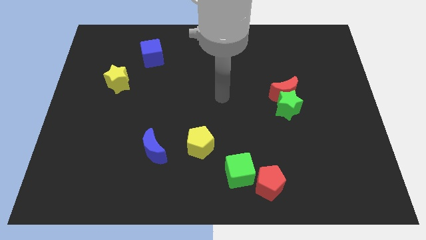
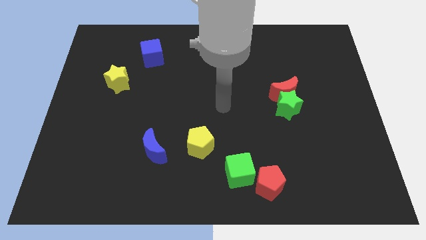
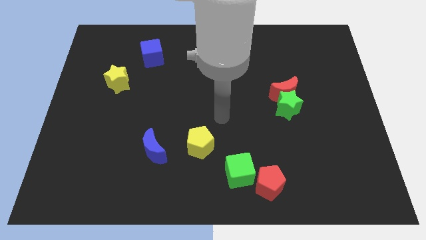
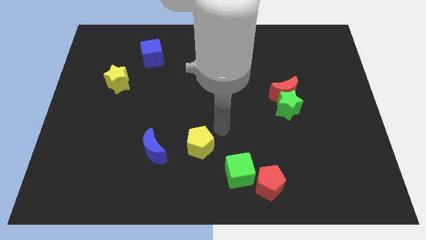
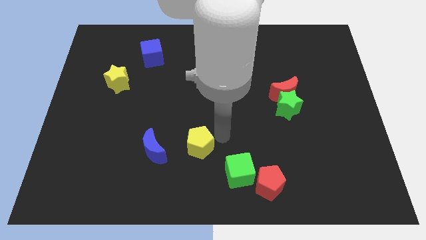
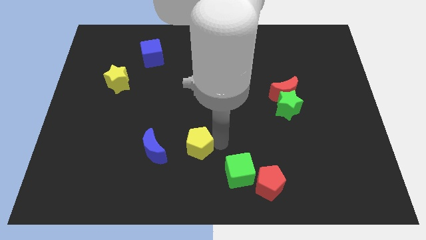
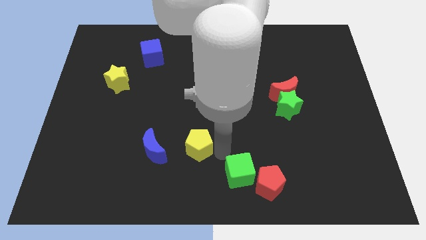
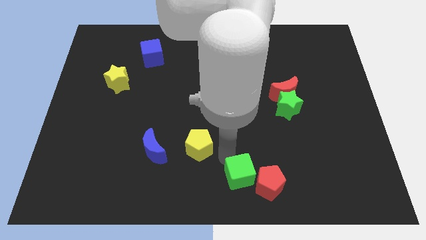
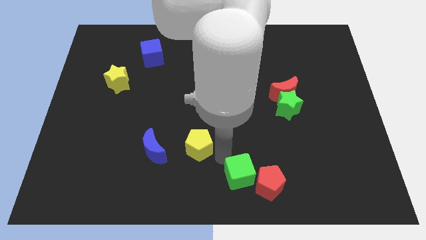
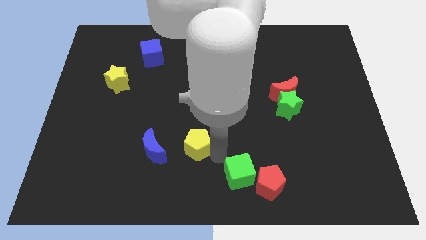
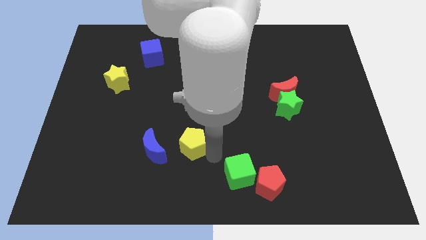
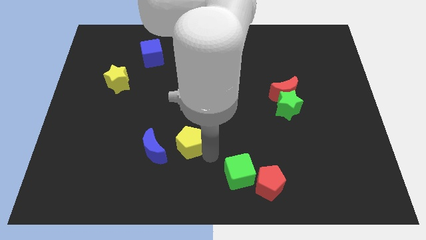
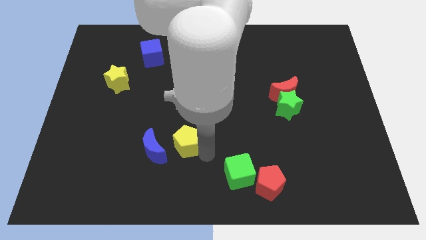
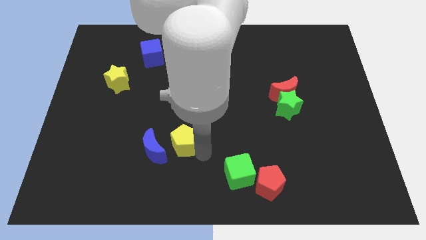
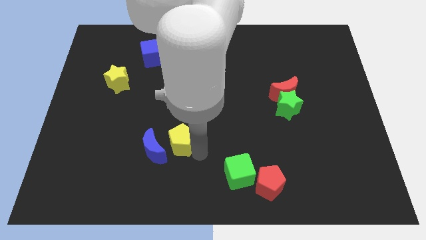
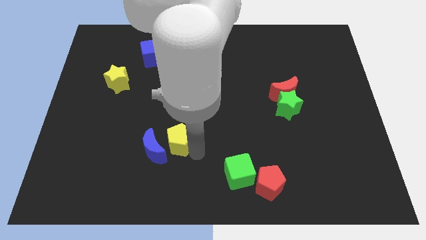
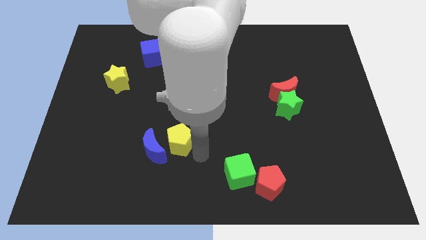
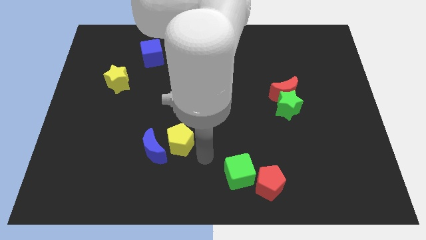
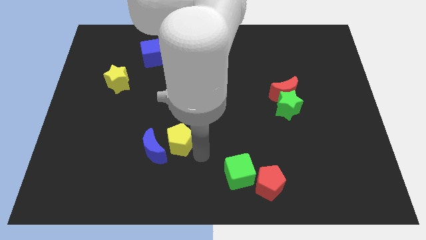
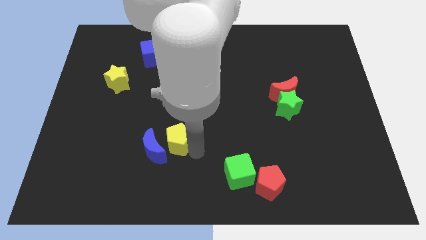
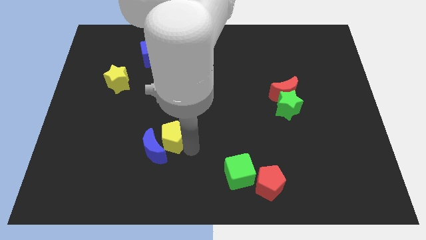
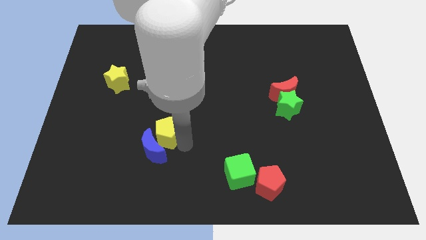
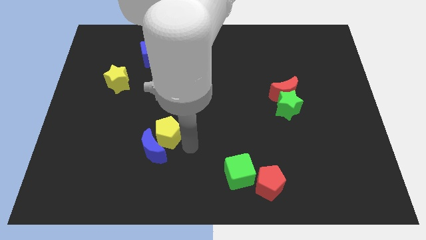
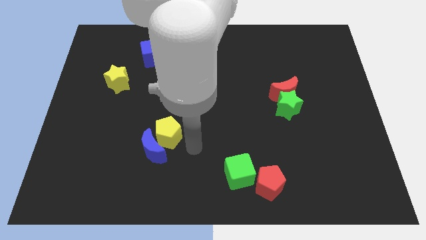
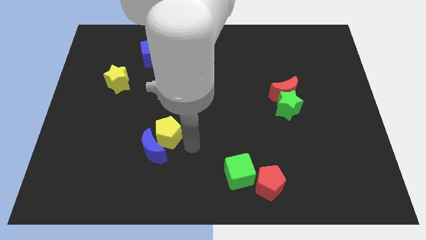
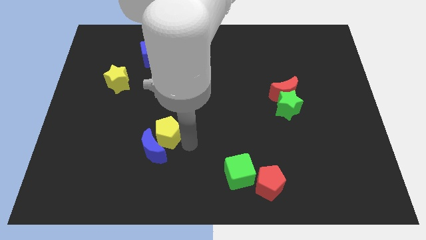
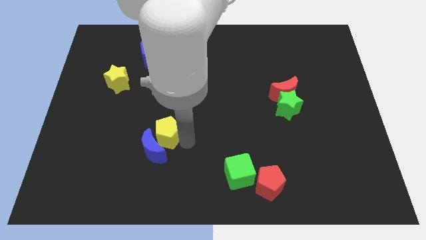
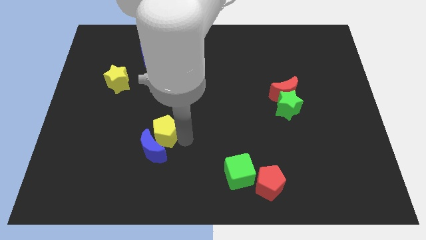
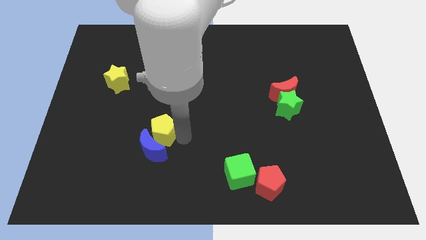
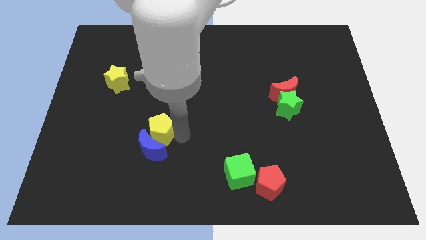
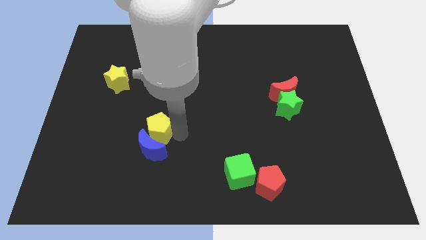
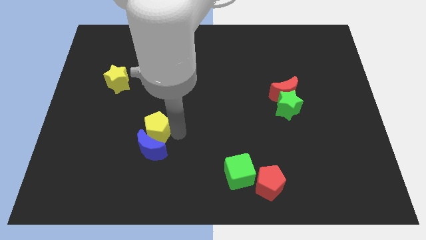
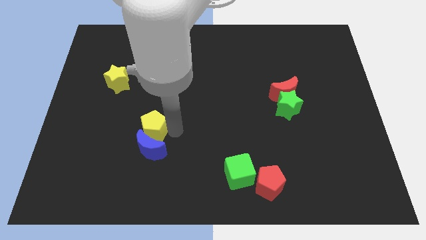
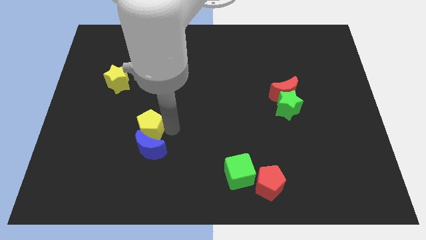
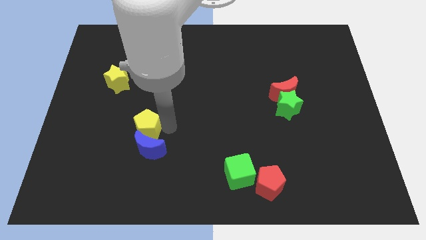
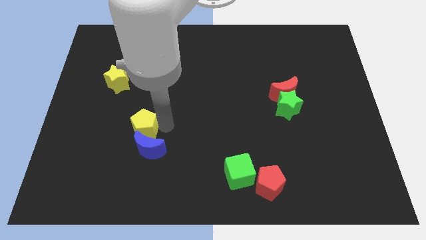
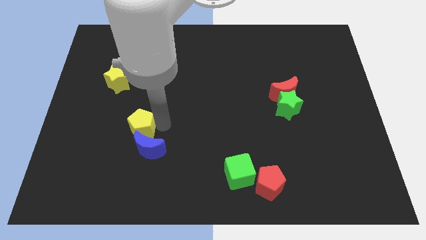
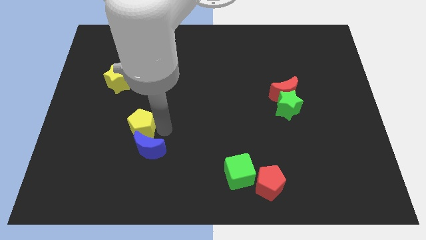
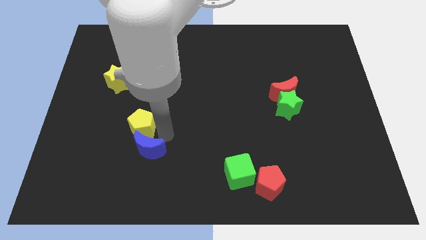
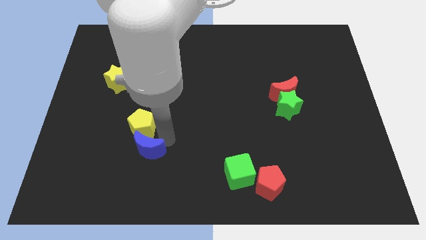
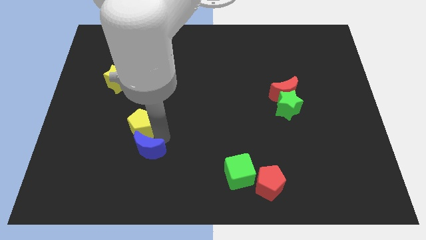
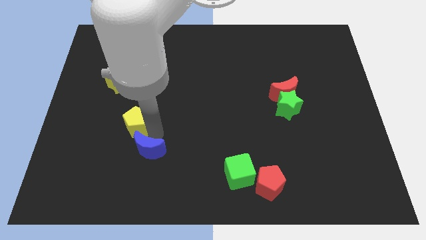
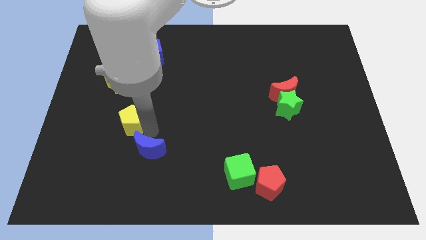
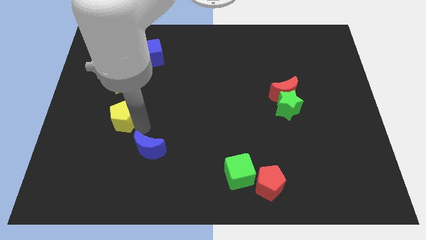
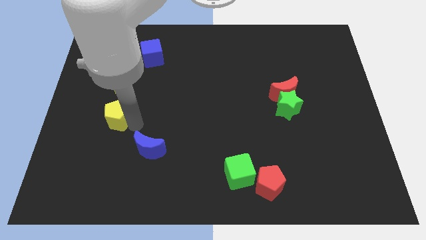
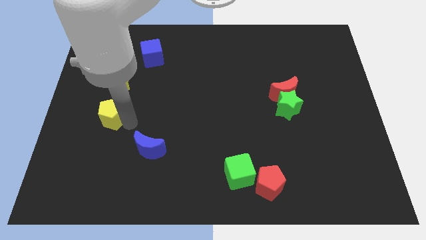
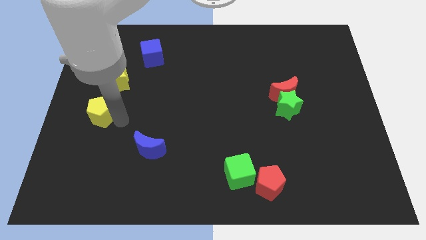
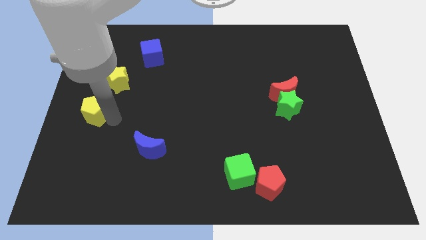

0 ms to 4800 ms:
slide the yellow pentagon to the bottom left side of the yellow star

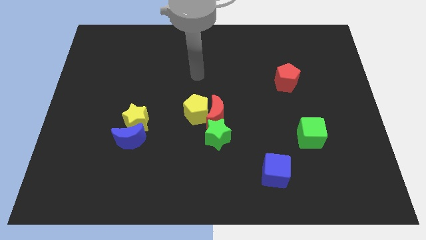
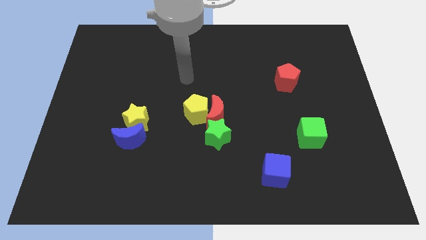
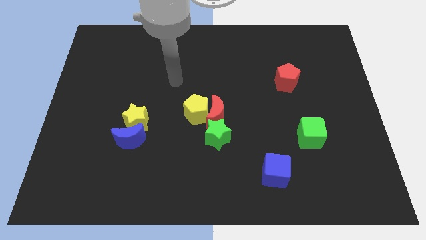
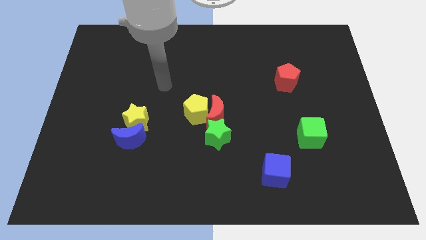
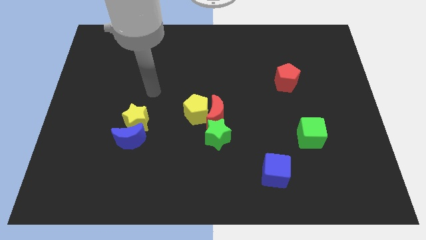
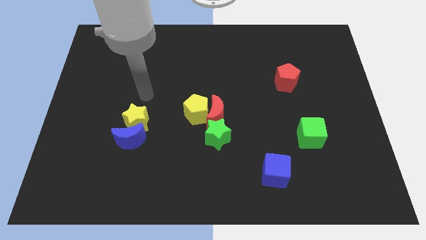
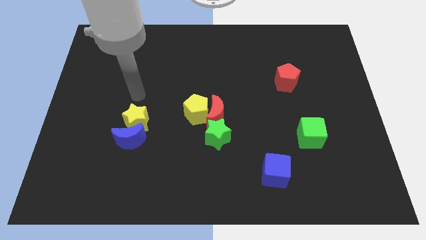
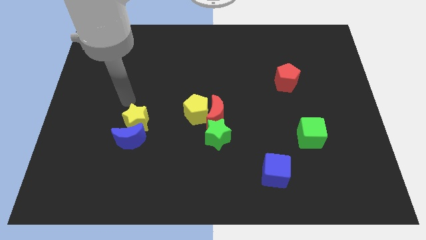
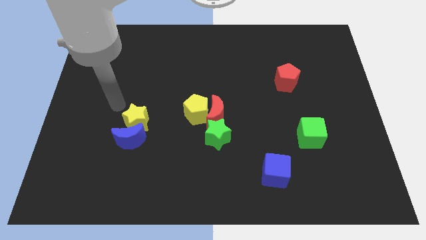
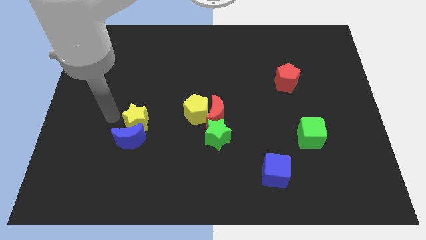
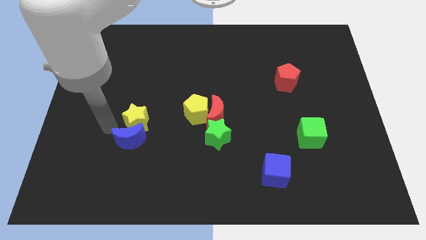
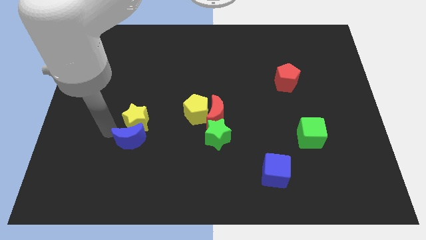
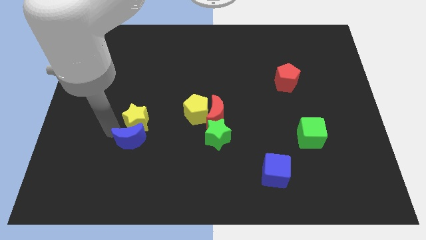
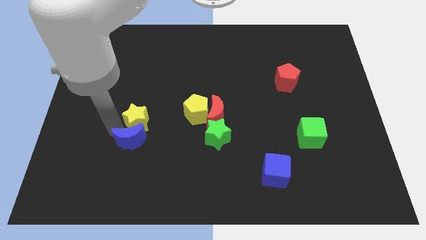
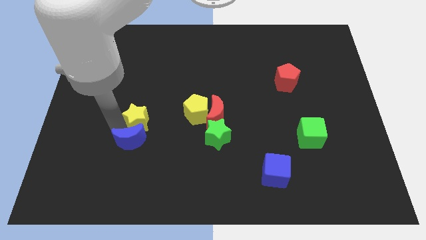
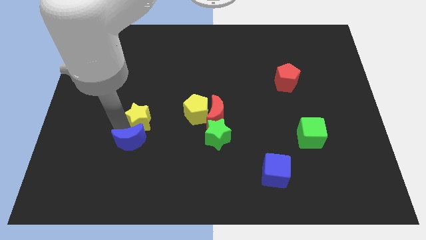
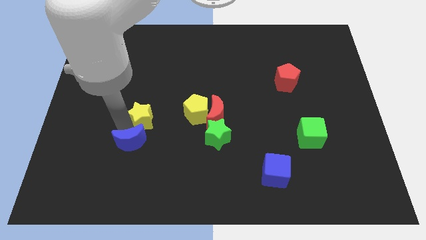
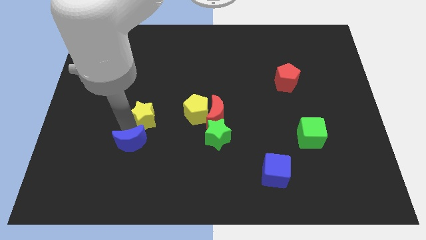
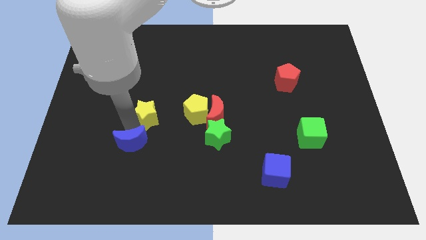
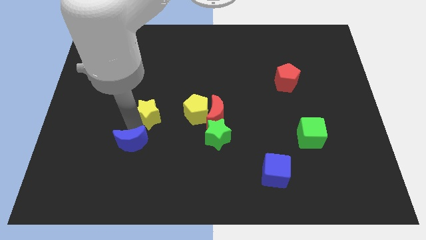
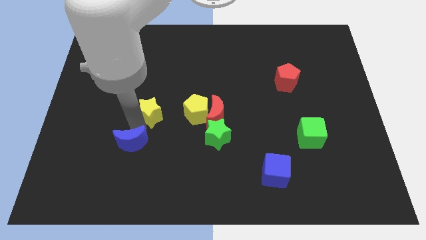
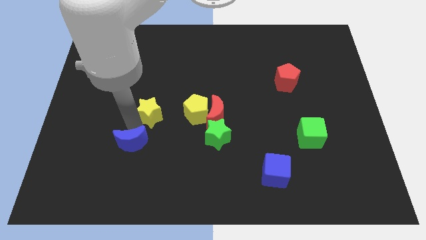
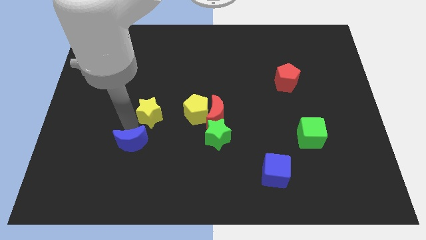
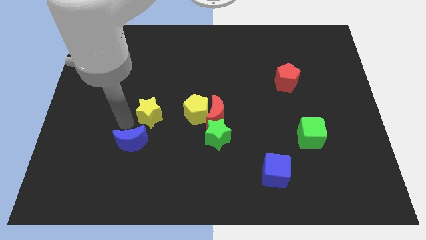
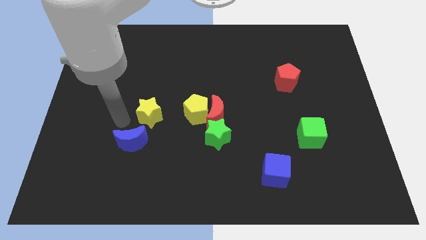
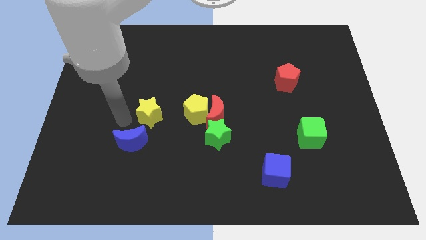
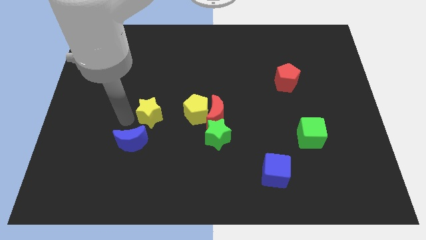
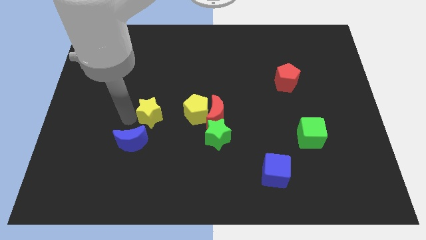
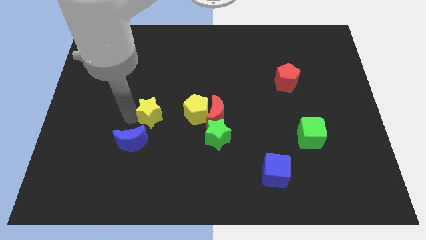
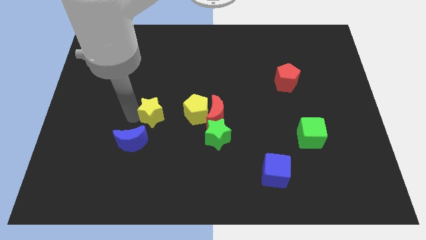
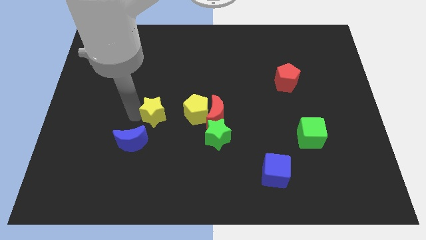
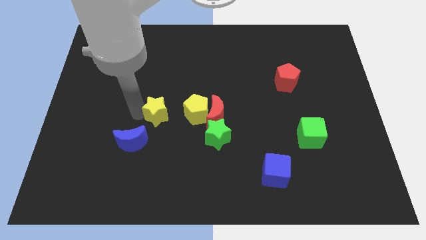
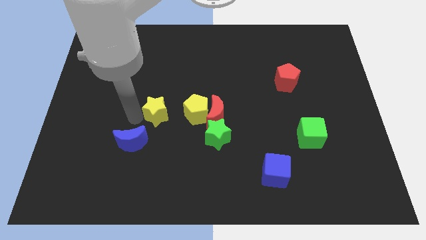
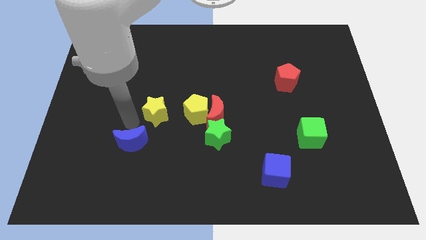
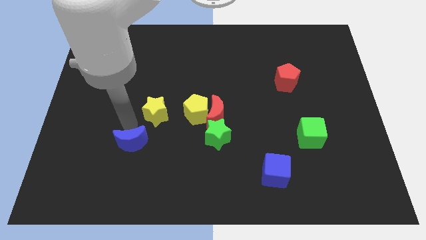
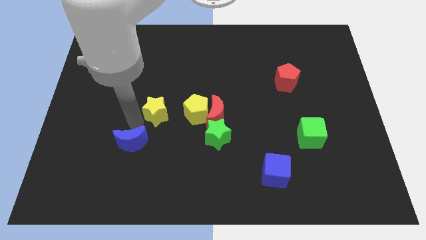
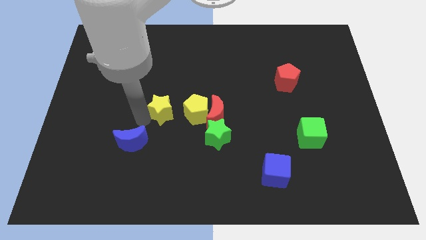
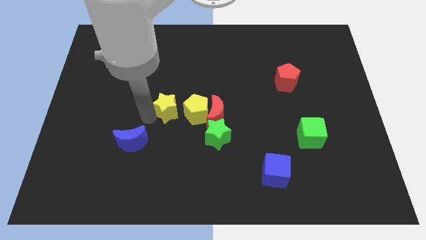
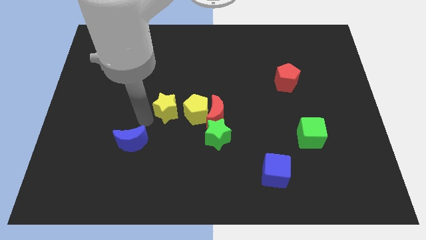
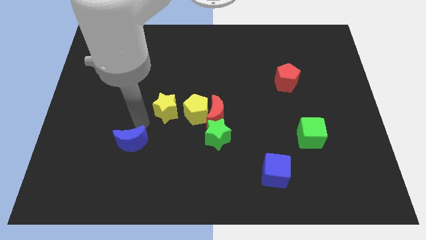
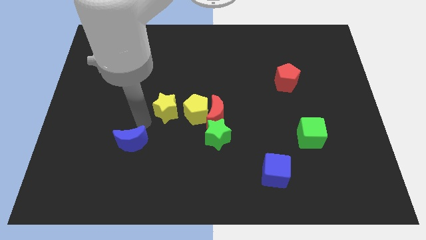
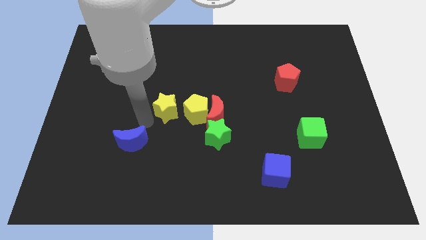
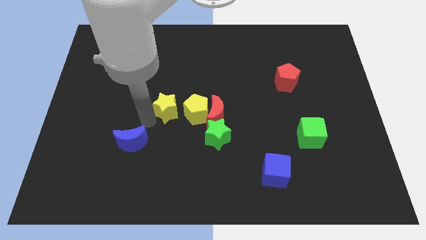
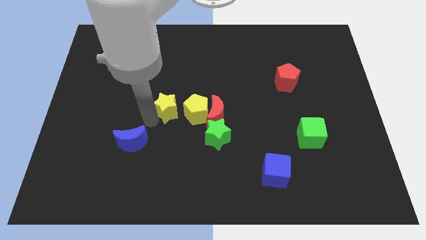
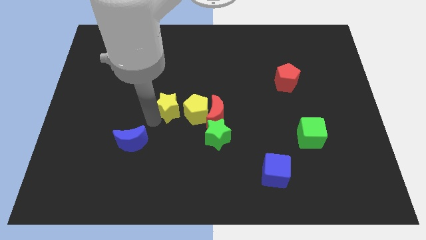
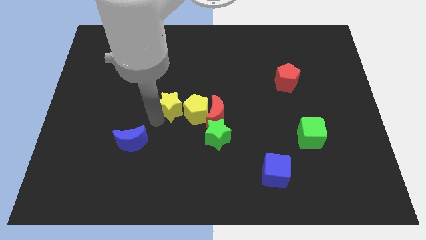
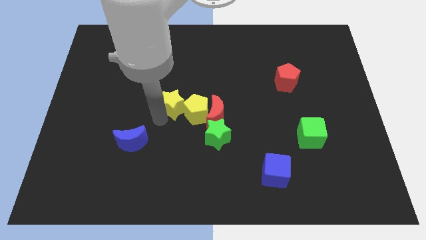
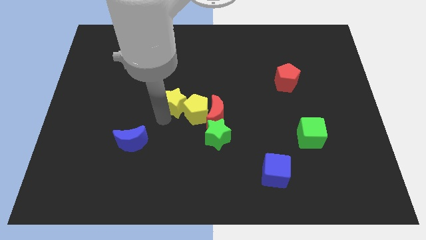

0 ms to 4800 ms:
slide the yellow star to the top left side of the red moon
